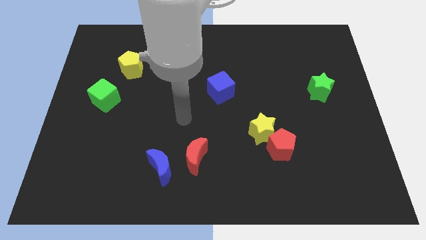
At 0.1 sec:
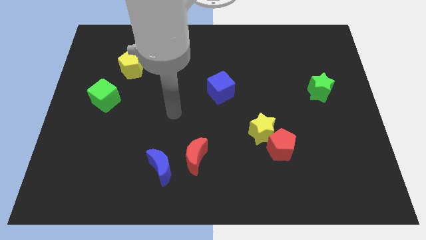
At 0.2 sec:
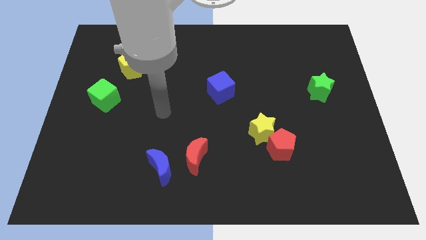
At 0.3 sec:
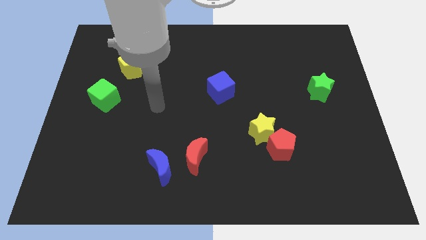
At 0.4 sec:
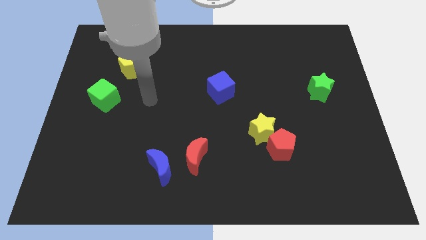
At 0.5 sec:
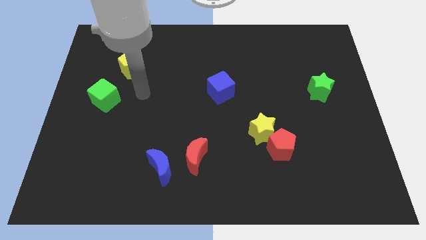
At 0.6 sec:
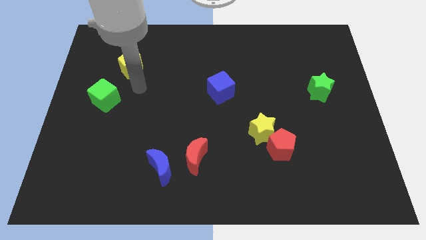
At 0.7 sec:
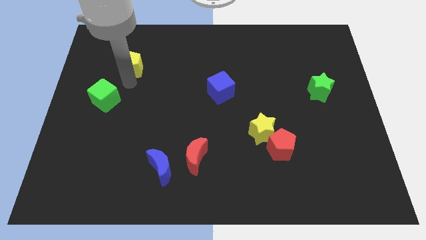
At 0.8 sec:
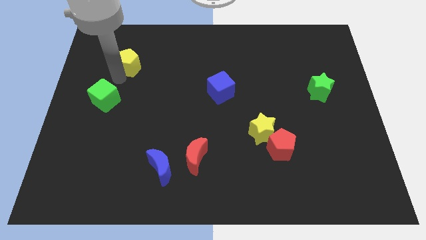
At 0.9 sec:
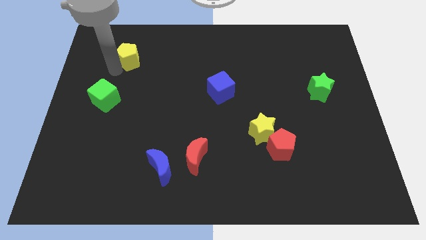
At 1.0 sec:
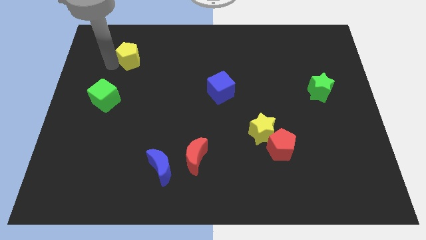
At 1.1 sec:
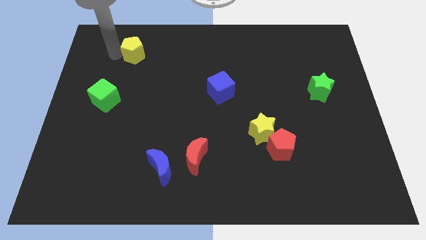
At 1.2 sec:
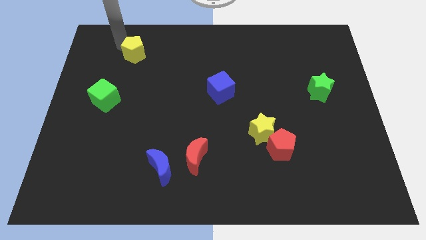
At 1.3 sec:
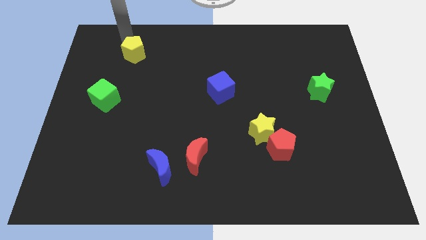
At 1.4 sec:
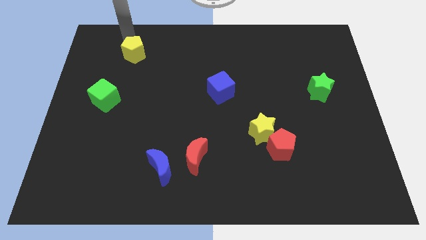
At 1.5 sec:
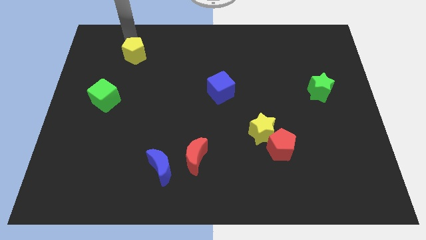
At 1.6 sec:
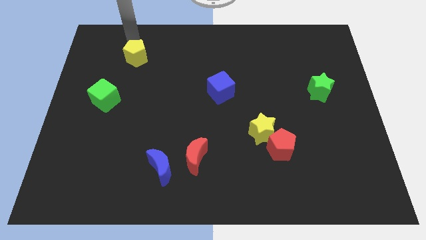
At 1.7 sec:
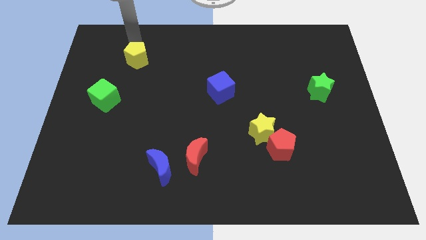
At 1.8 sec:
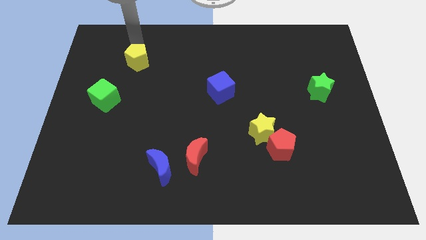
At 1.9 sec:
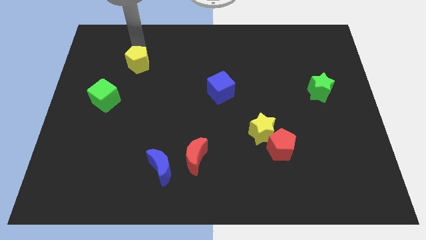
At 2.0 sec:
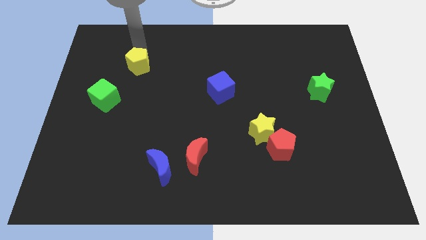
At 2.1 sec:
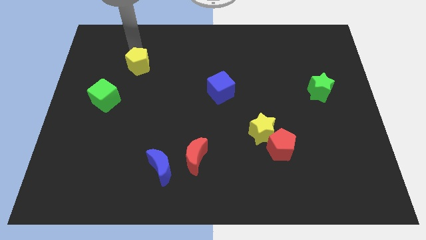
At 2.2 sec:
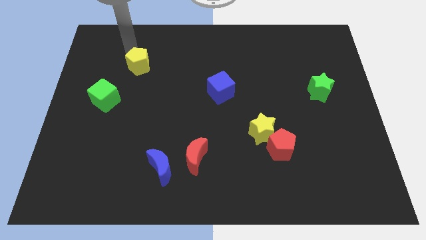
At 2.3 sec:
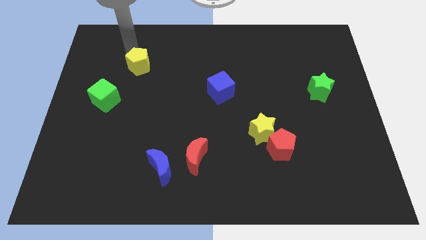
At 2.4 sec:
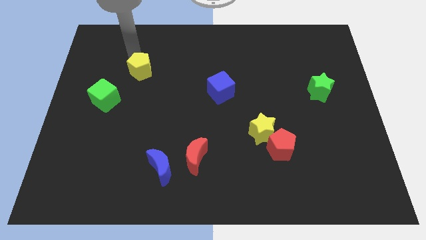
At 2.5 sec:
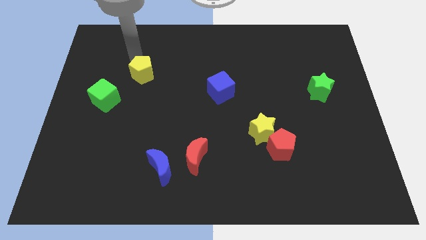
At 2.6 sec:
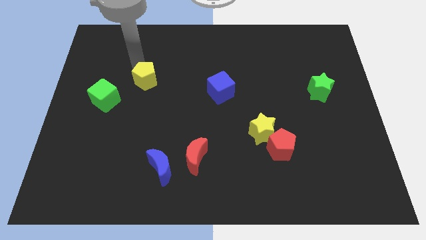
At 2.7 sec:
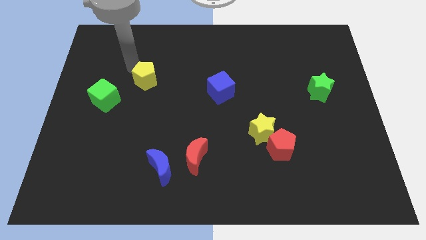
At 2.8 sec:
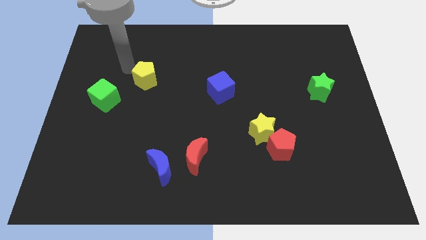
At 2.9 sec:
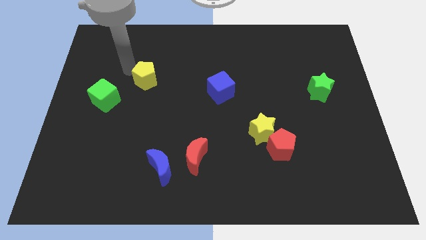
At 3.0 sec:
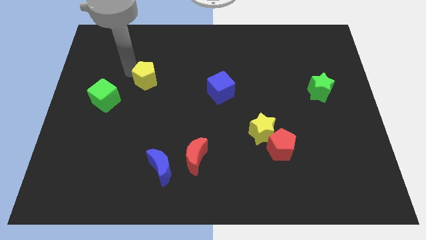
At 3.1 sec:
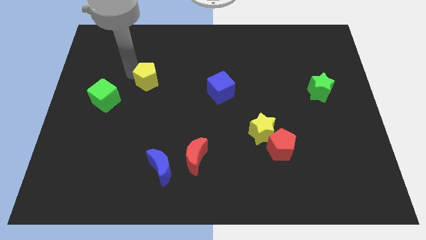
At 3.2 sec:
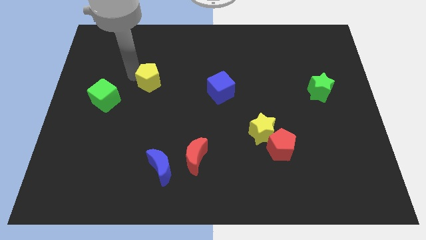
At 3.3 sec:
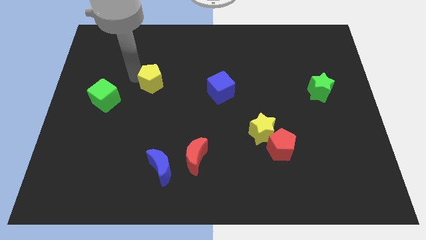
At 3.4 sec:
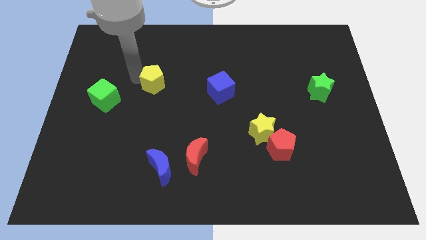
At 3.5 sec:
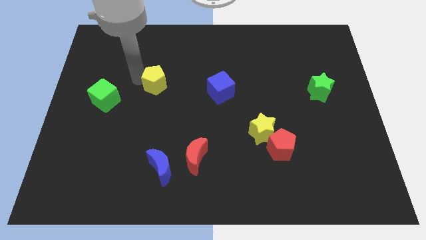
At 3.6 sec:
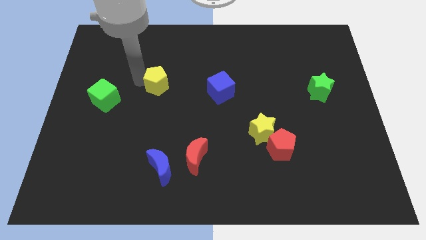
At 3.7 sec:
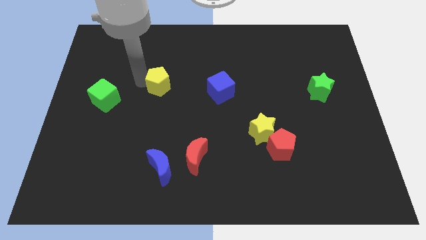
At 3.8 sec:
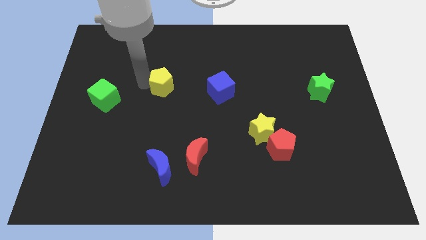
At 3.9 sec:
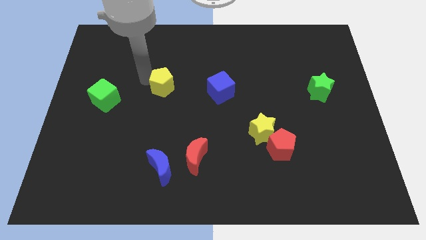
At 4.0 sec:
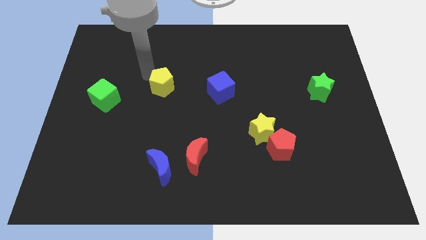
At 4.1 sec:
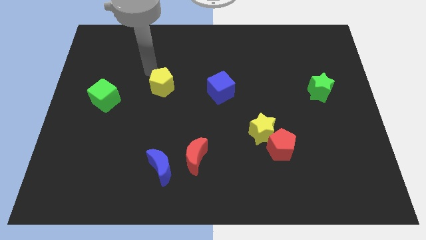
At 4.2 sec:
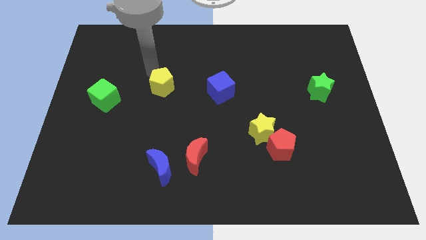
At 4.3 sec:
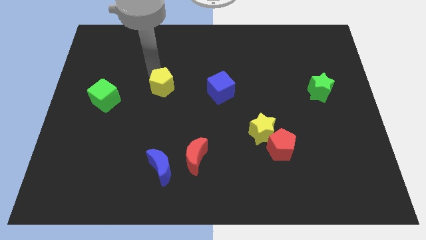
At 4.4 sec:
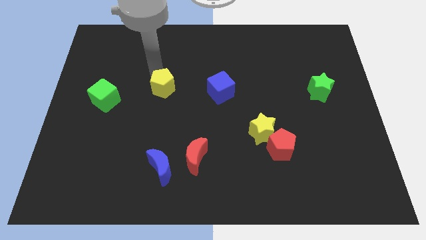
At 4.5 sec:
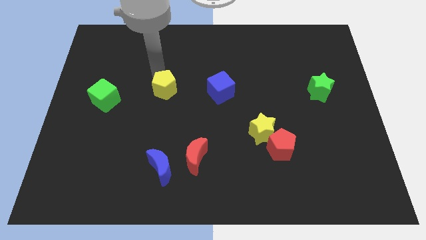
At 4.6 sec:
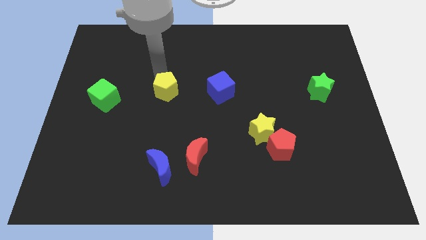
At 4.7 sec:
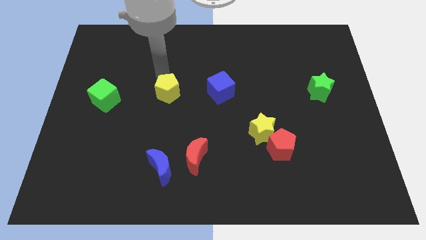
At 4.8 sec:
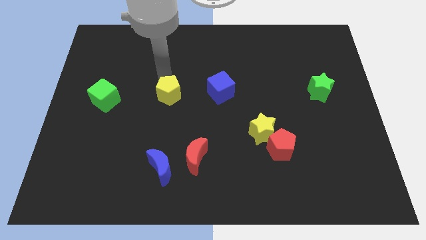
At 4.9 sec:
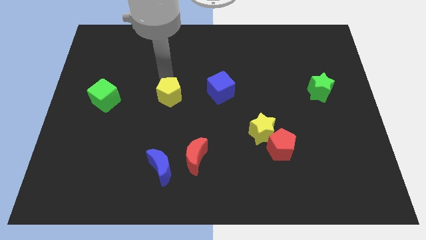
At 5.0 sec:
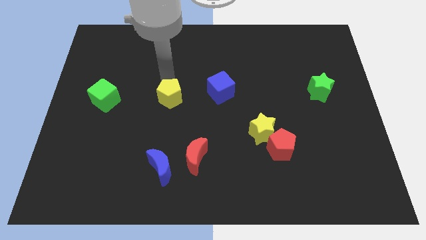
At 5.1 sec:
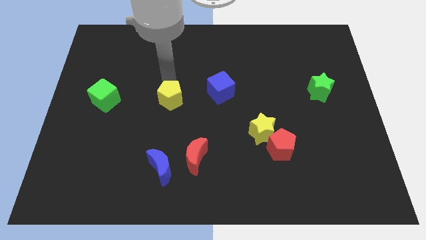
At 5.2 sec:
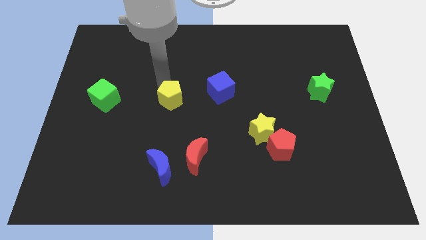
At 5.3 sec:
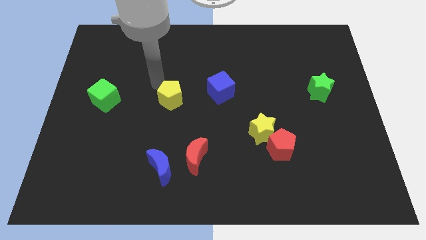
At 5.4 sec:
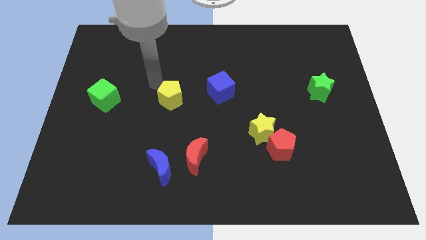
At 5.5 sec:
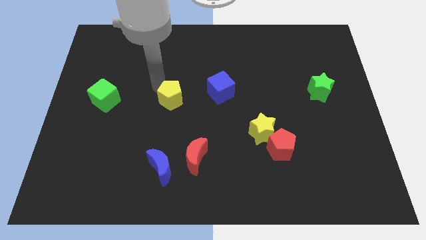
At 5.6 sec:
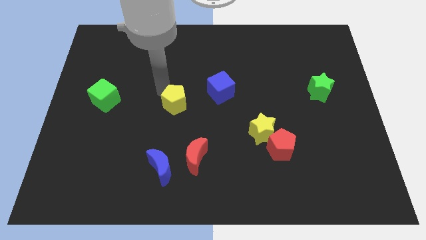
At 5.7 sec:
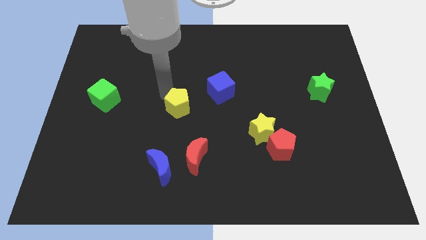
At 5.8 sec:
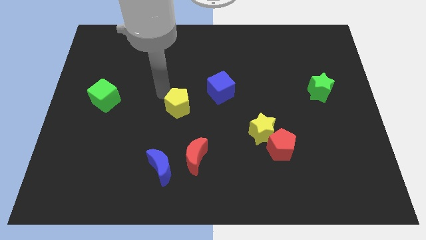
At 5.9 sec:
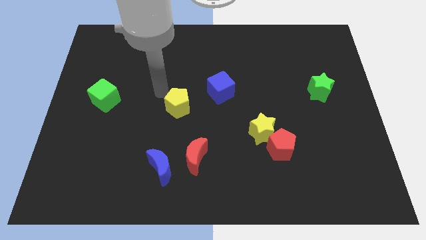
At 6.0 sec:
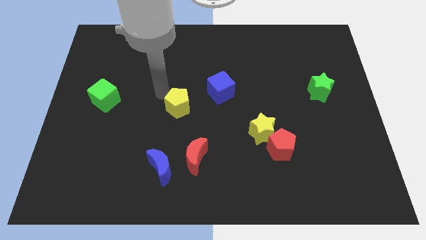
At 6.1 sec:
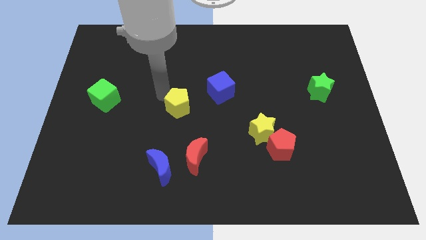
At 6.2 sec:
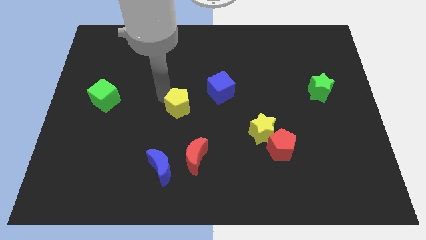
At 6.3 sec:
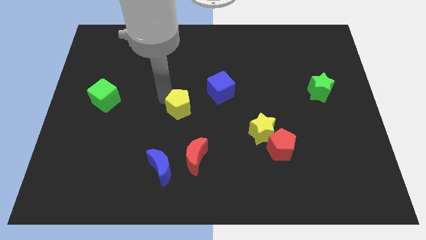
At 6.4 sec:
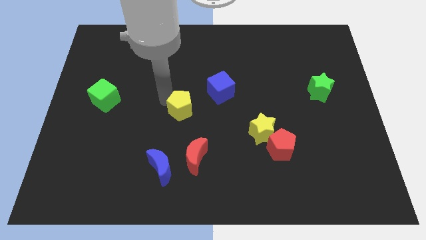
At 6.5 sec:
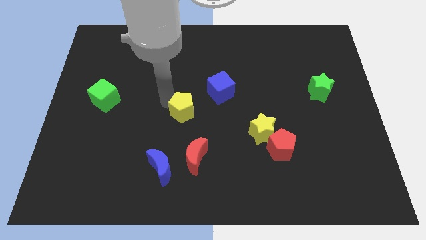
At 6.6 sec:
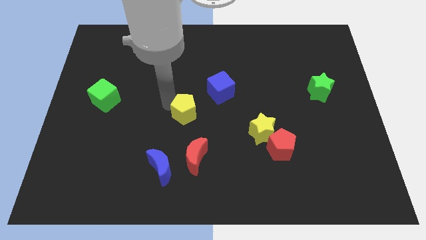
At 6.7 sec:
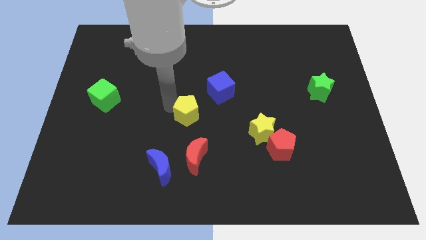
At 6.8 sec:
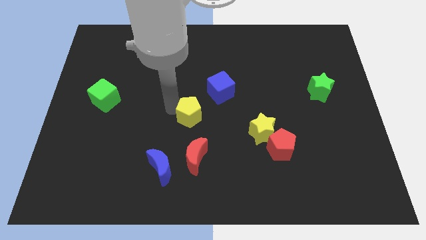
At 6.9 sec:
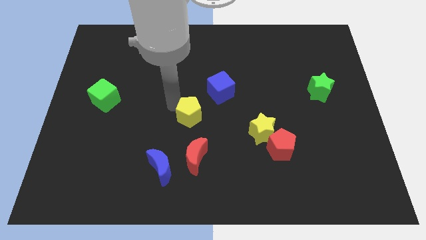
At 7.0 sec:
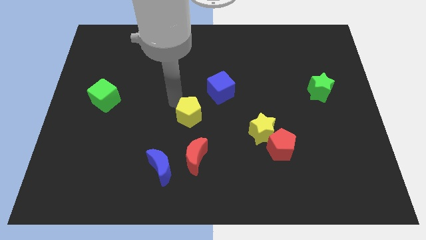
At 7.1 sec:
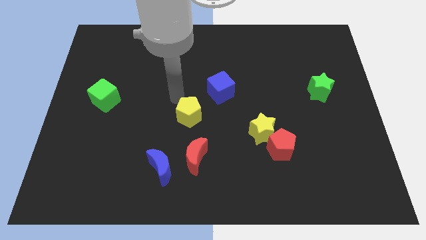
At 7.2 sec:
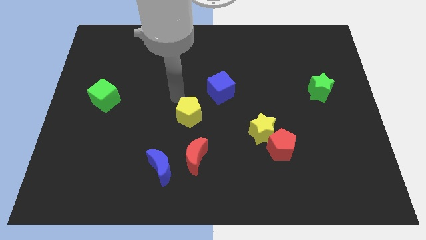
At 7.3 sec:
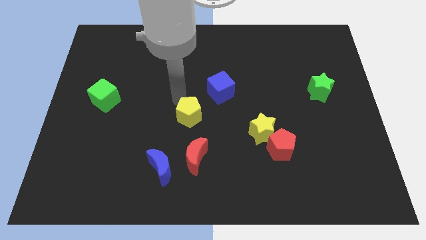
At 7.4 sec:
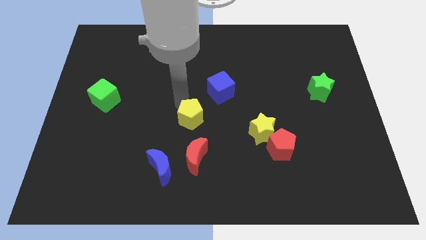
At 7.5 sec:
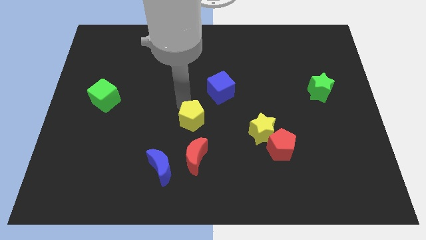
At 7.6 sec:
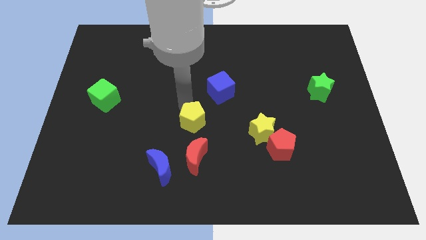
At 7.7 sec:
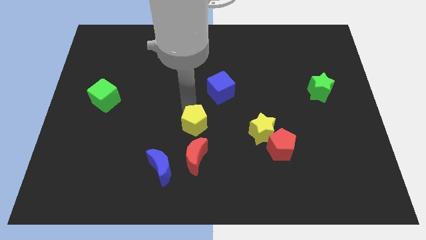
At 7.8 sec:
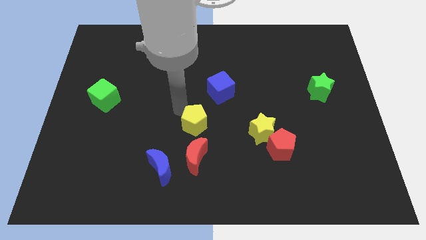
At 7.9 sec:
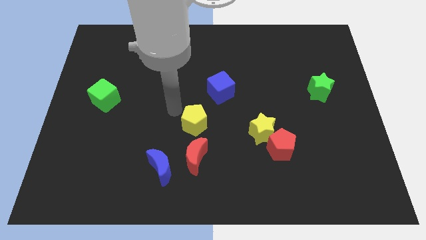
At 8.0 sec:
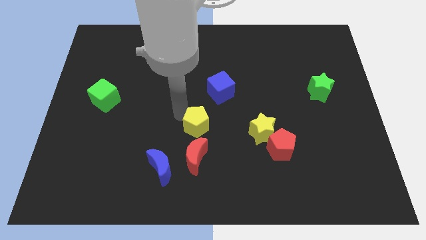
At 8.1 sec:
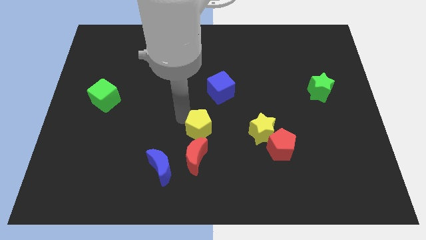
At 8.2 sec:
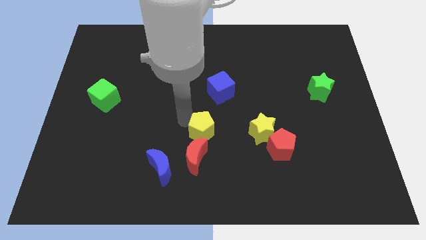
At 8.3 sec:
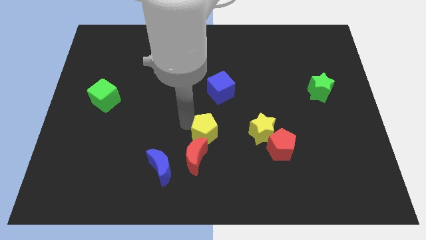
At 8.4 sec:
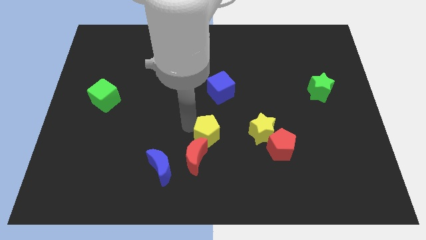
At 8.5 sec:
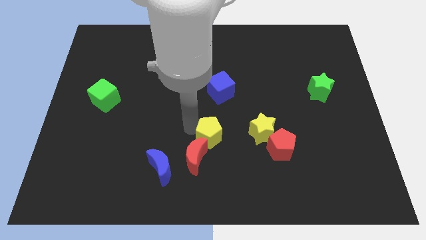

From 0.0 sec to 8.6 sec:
put the yellow pentagon to the left of the red pentagon
